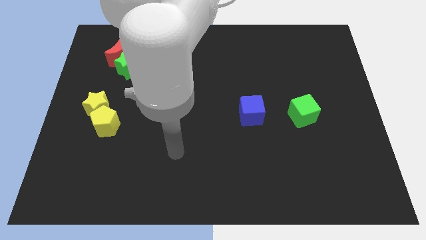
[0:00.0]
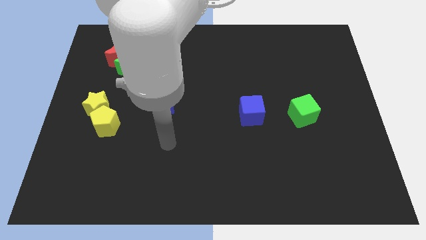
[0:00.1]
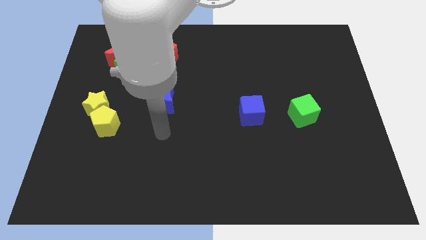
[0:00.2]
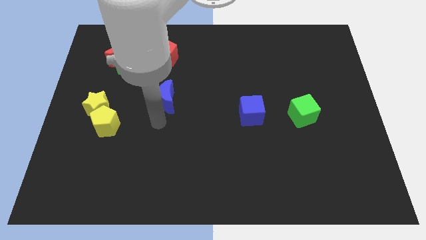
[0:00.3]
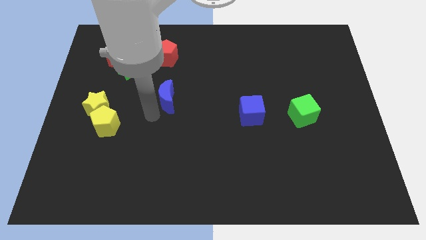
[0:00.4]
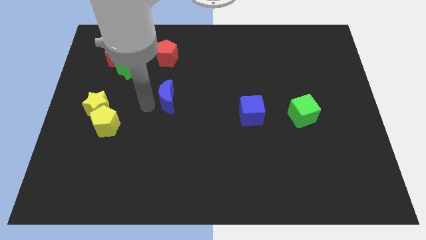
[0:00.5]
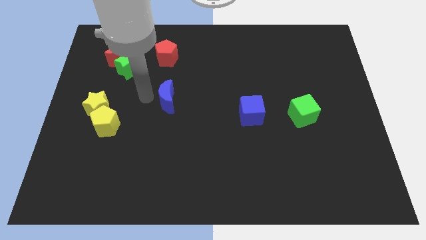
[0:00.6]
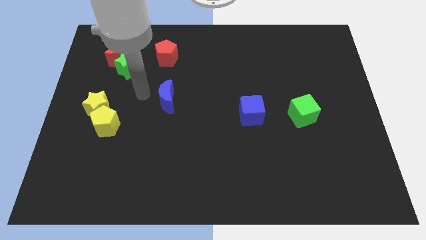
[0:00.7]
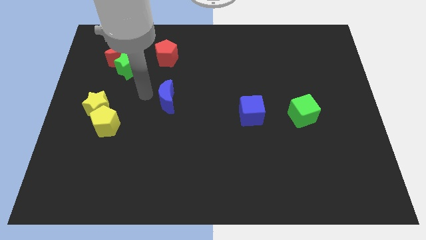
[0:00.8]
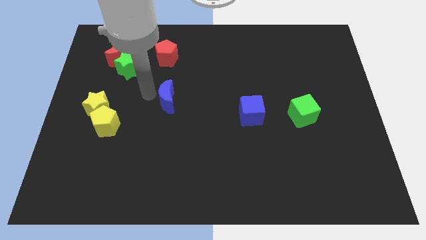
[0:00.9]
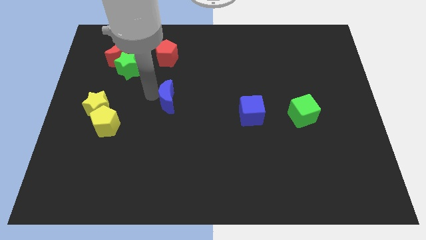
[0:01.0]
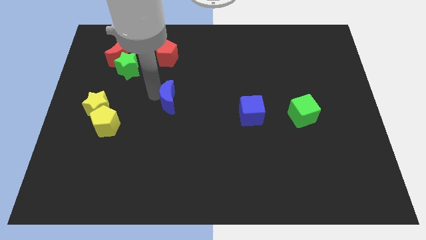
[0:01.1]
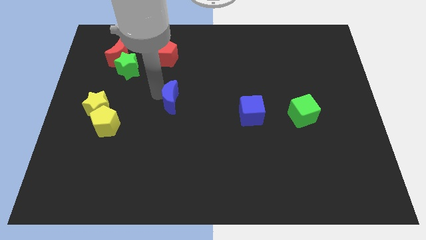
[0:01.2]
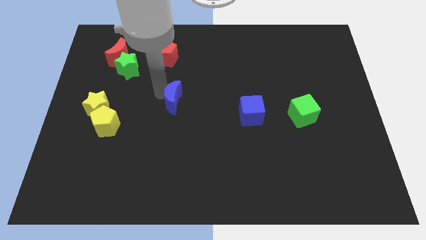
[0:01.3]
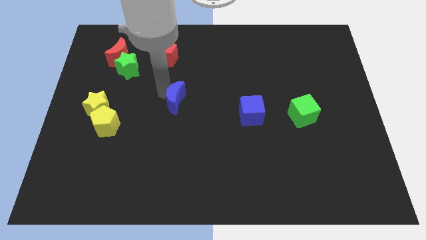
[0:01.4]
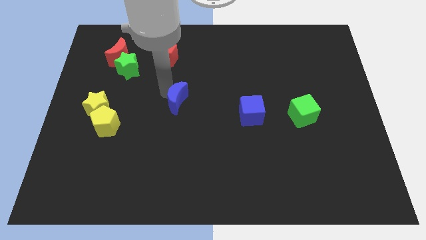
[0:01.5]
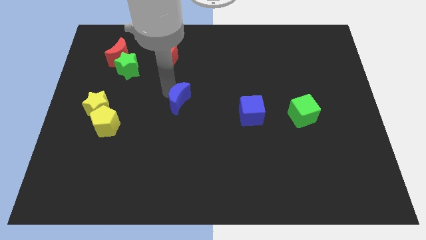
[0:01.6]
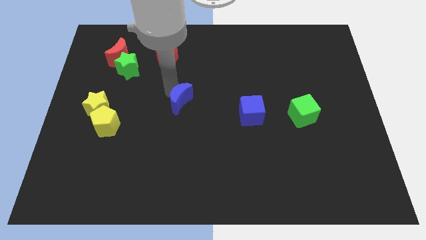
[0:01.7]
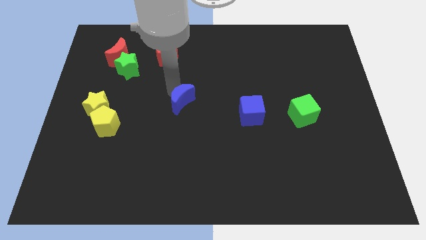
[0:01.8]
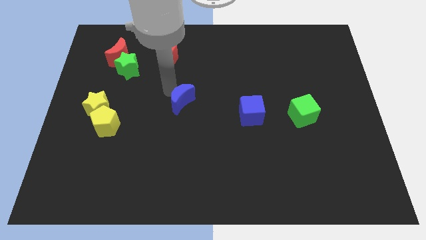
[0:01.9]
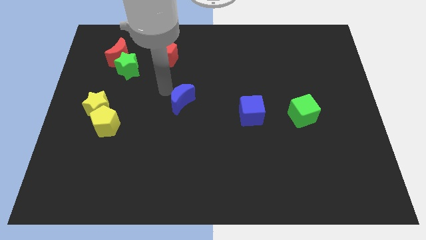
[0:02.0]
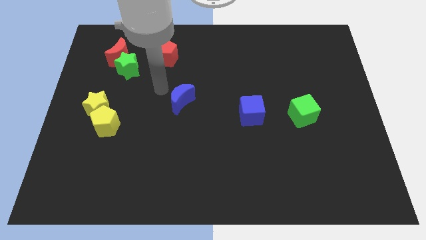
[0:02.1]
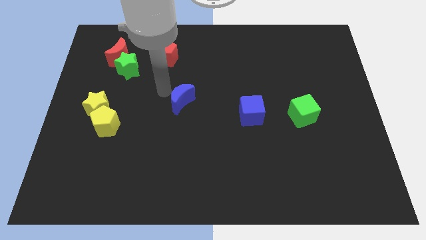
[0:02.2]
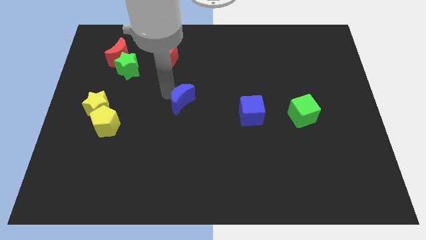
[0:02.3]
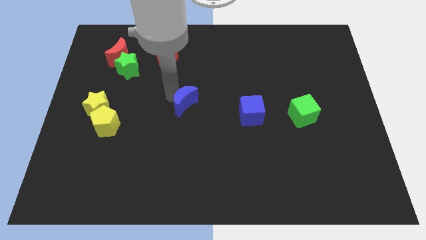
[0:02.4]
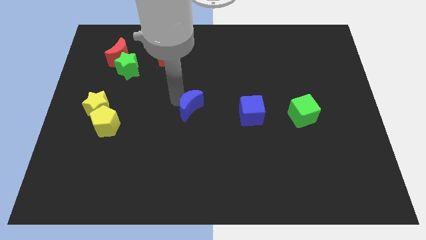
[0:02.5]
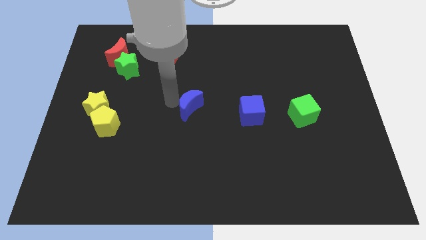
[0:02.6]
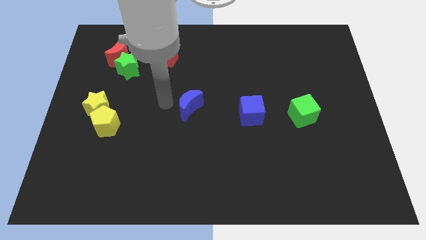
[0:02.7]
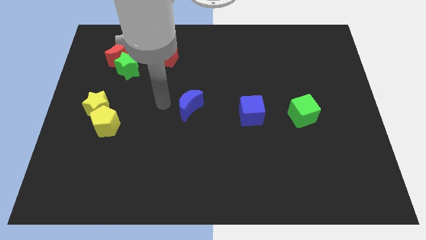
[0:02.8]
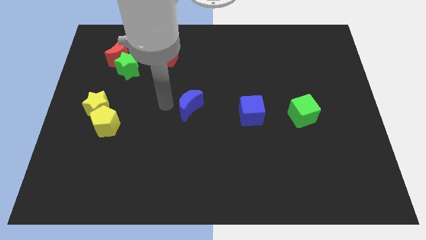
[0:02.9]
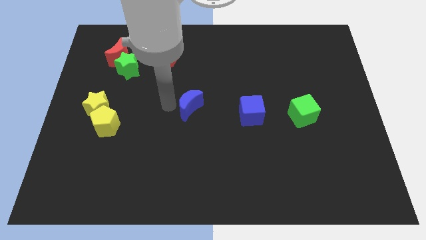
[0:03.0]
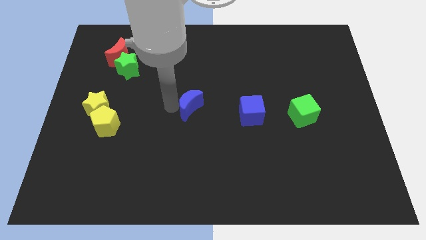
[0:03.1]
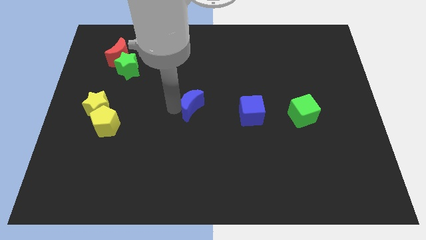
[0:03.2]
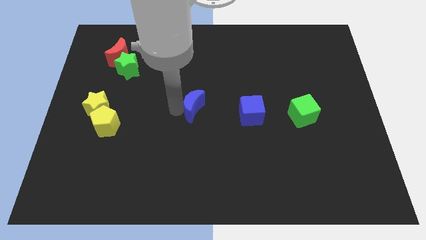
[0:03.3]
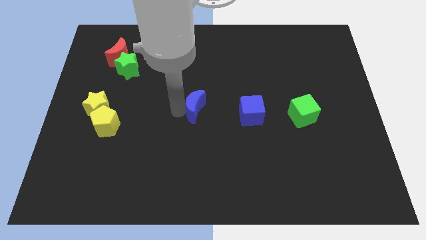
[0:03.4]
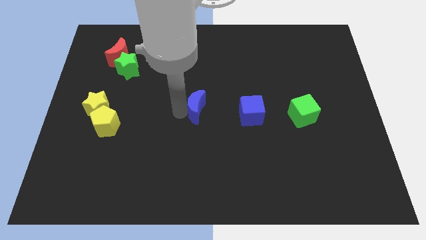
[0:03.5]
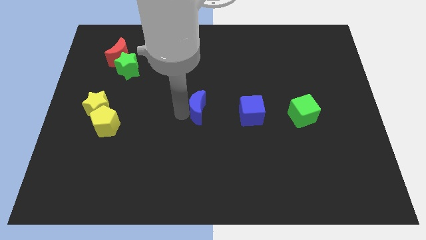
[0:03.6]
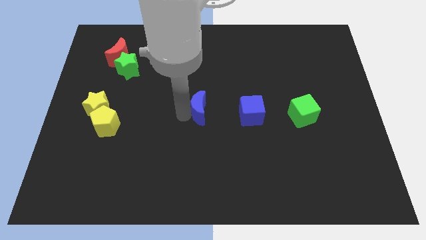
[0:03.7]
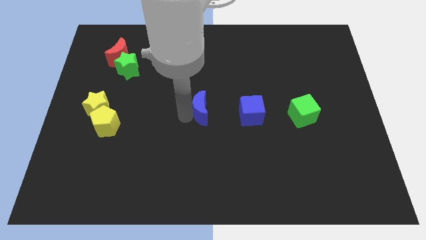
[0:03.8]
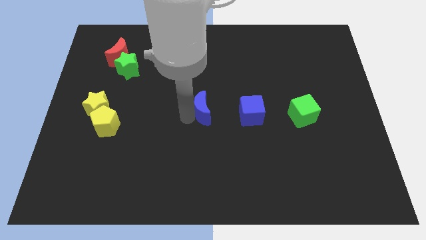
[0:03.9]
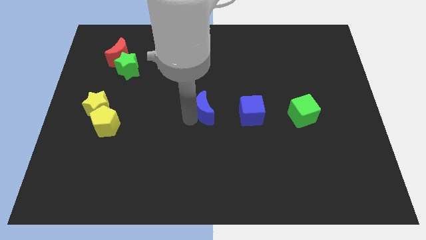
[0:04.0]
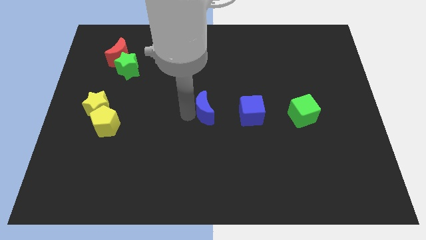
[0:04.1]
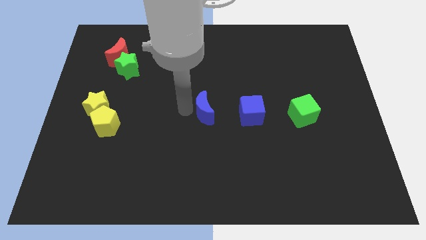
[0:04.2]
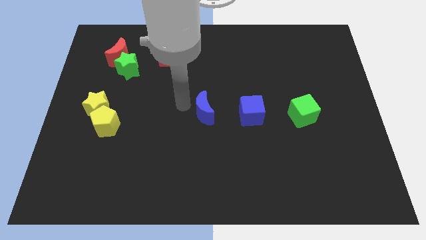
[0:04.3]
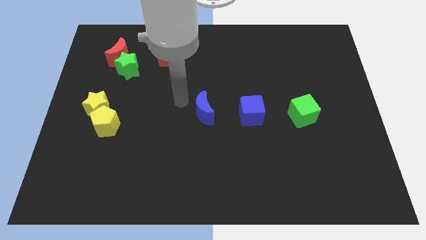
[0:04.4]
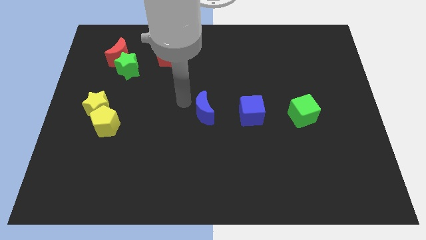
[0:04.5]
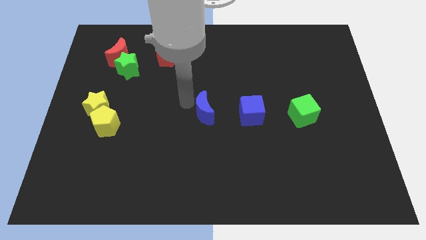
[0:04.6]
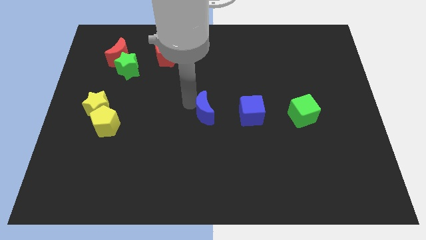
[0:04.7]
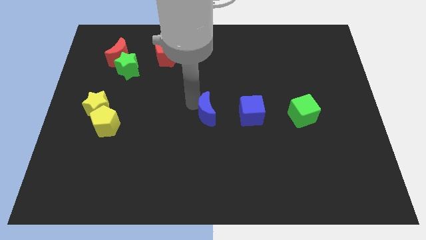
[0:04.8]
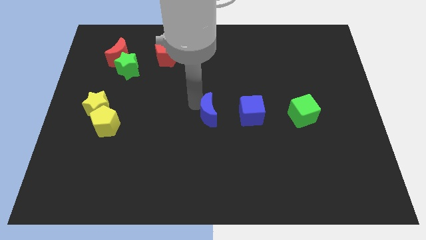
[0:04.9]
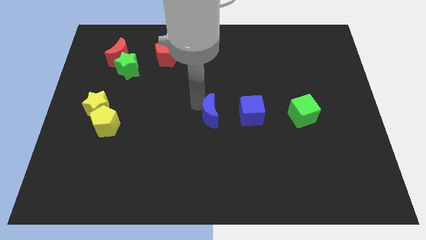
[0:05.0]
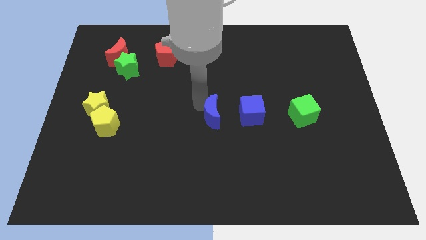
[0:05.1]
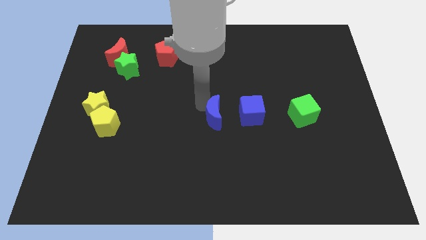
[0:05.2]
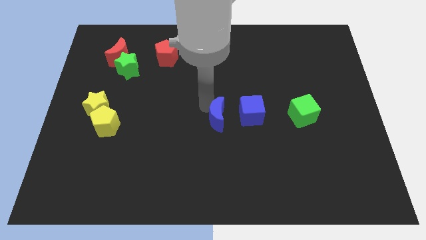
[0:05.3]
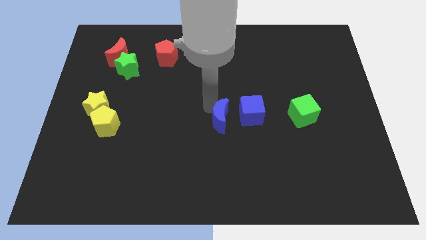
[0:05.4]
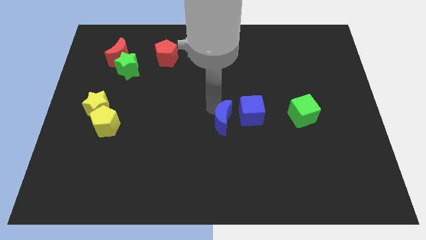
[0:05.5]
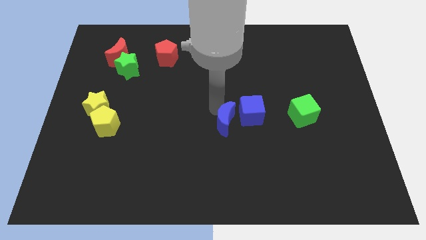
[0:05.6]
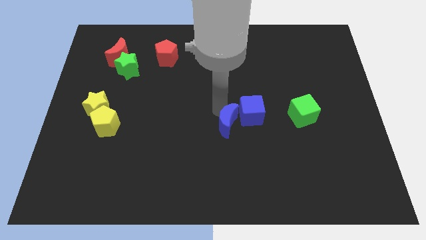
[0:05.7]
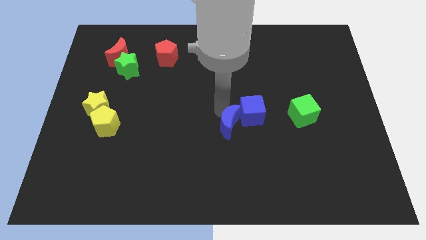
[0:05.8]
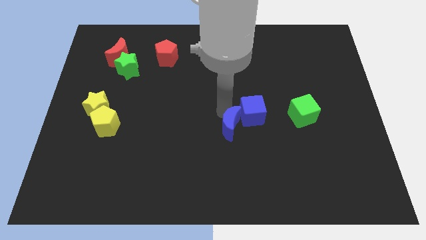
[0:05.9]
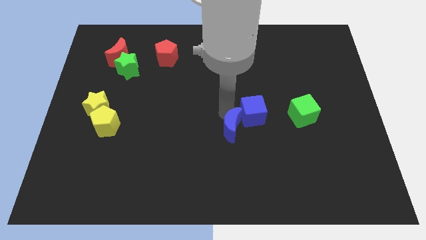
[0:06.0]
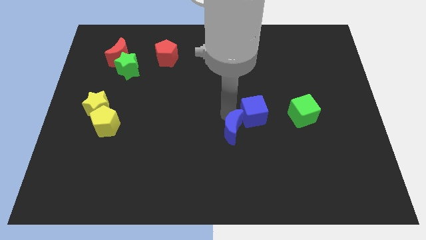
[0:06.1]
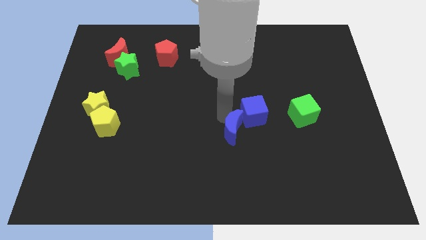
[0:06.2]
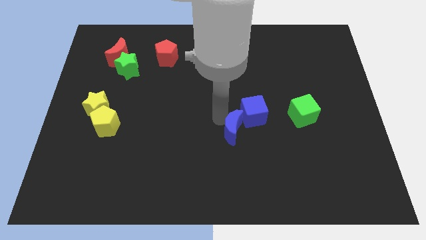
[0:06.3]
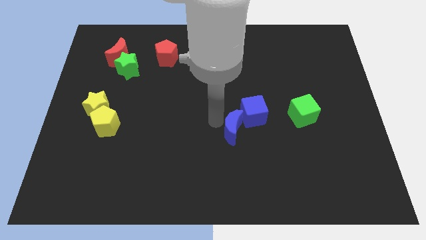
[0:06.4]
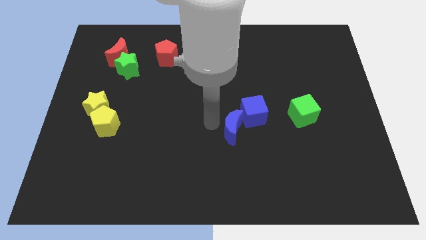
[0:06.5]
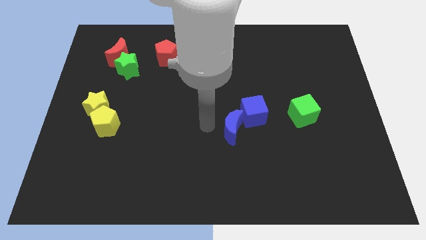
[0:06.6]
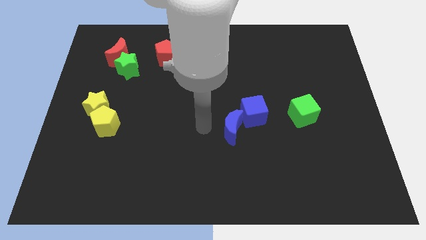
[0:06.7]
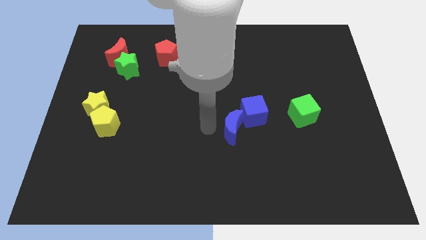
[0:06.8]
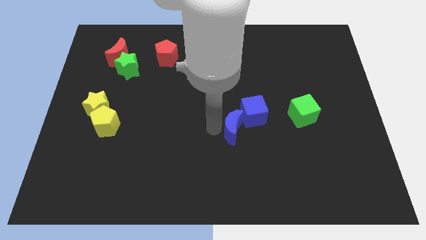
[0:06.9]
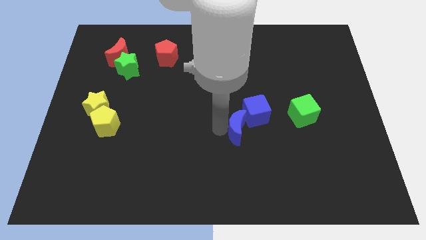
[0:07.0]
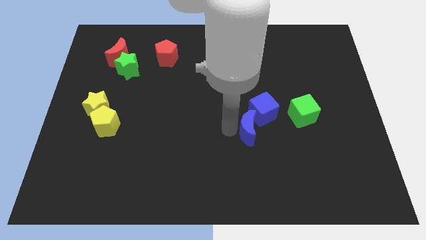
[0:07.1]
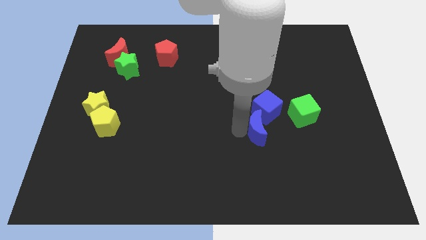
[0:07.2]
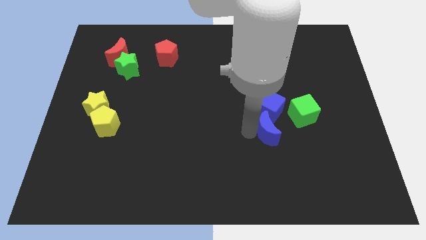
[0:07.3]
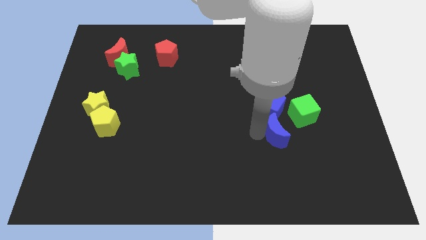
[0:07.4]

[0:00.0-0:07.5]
put the blue moon to the bottom right of the blue cube

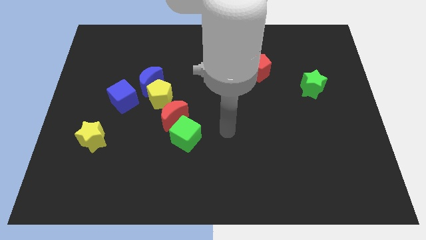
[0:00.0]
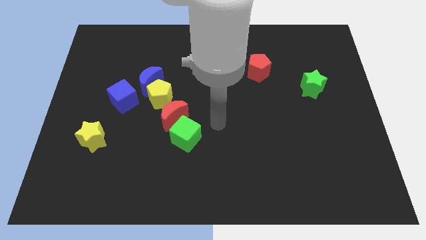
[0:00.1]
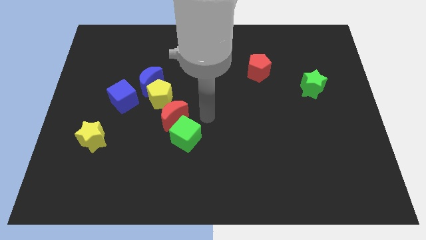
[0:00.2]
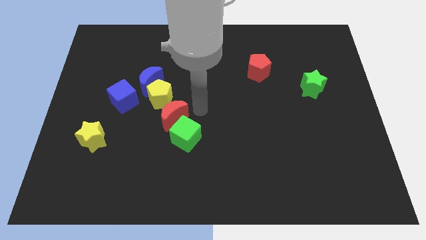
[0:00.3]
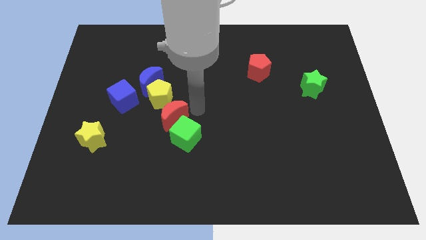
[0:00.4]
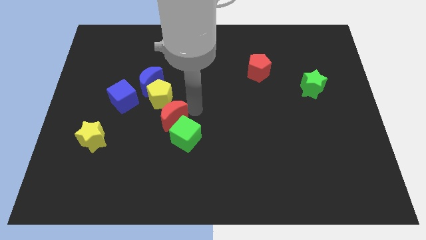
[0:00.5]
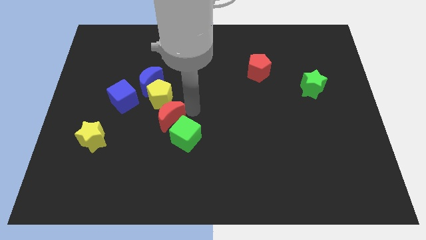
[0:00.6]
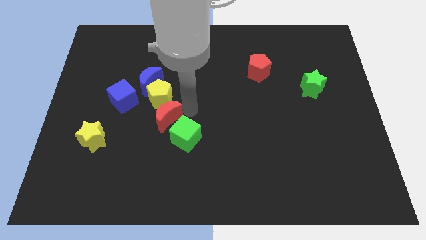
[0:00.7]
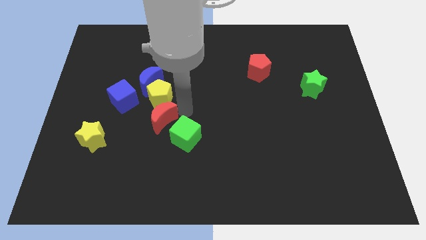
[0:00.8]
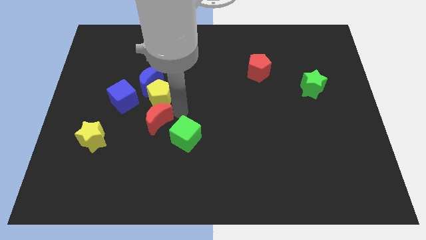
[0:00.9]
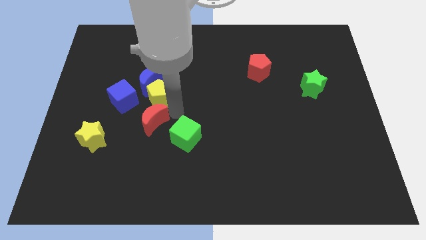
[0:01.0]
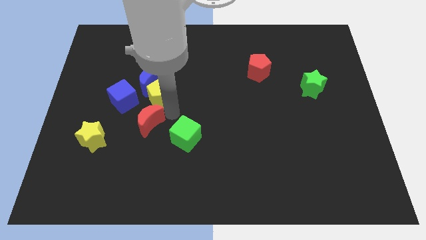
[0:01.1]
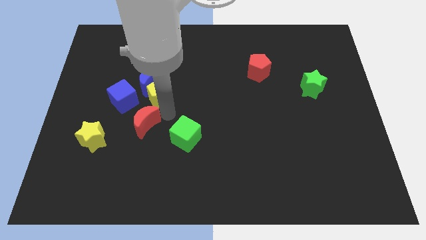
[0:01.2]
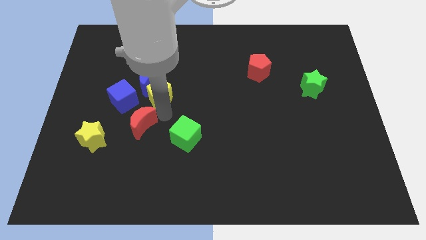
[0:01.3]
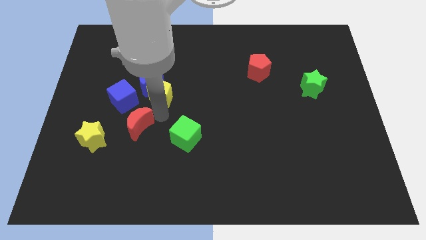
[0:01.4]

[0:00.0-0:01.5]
slide the red moon to the bottom side of the blue cube
